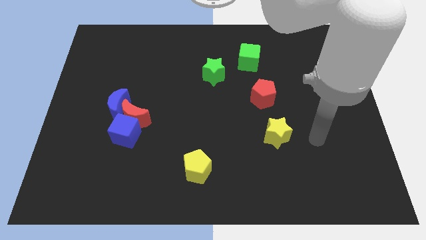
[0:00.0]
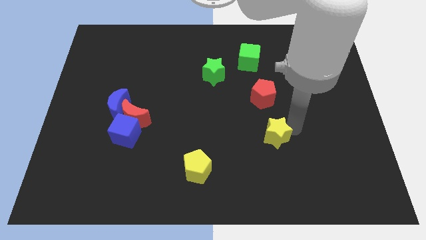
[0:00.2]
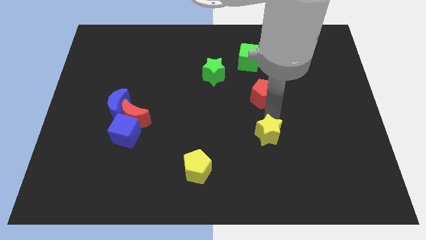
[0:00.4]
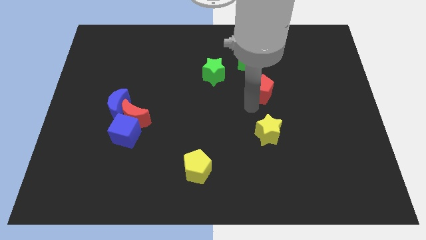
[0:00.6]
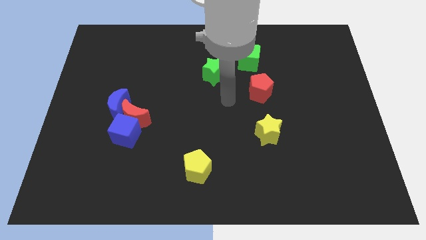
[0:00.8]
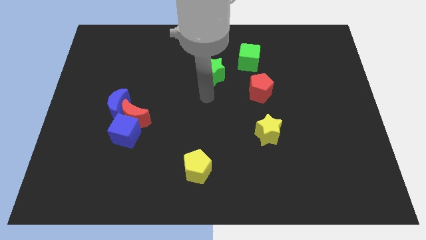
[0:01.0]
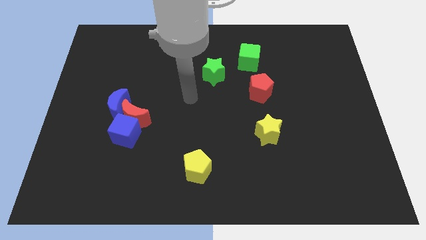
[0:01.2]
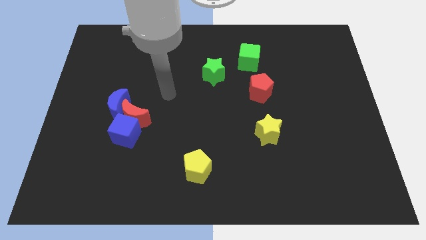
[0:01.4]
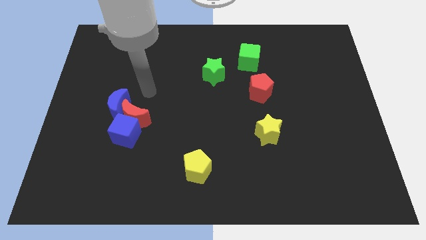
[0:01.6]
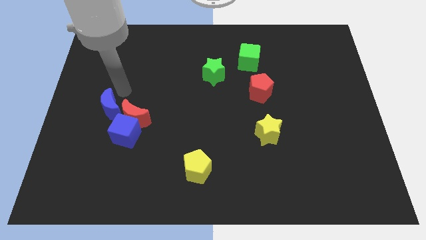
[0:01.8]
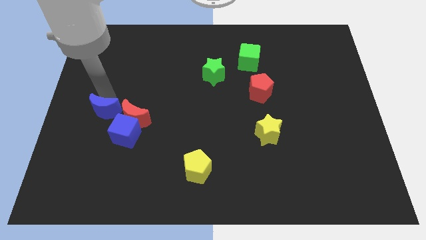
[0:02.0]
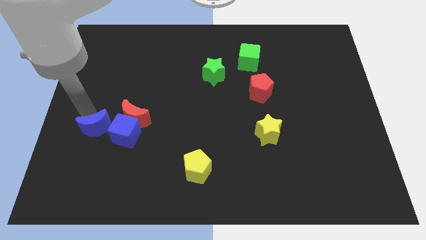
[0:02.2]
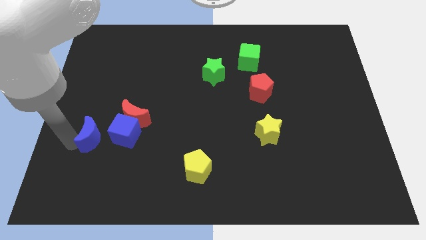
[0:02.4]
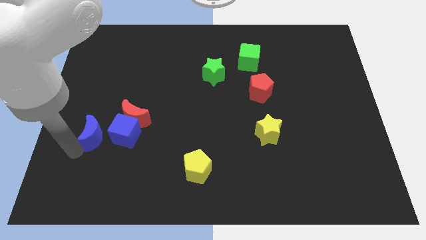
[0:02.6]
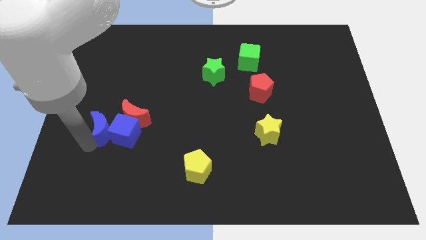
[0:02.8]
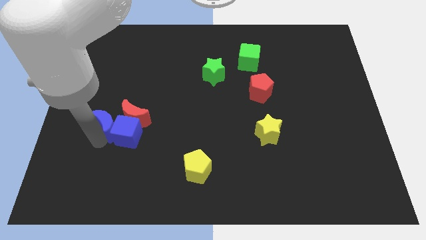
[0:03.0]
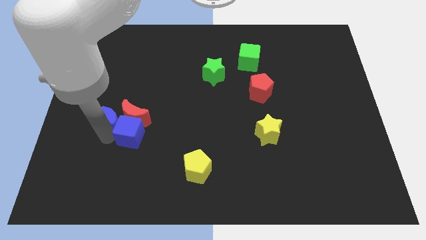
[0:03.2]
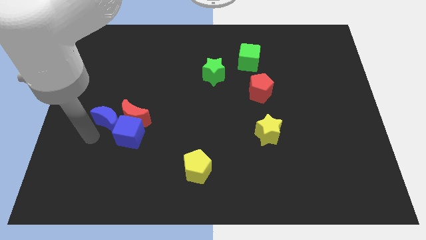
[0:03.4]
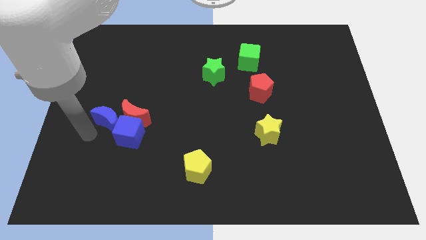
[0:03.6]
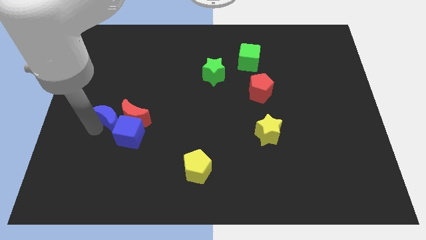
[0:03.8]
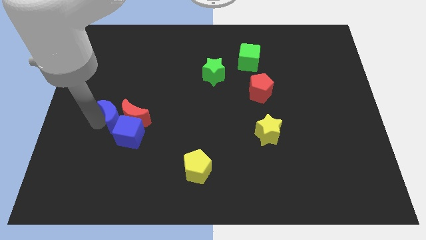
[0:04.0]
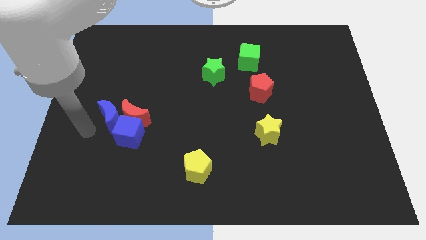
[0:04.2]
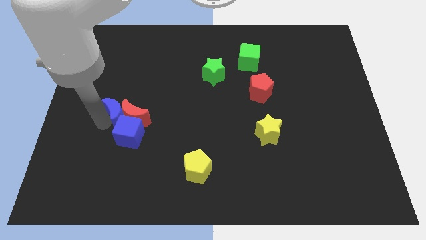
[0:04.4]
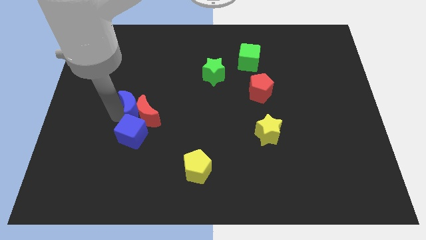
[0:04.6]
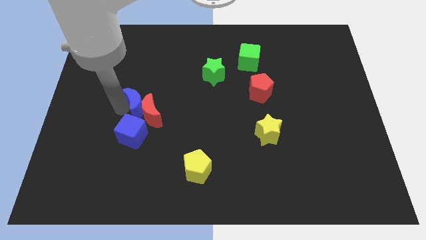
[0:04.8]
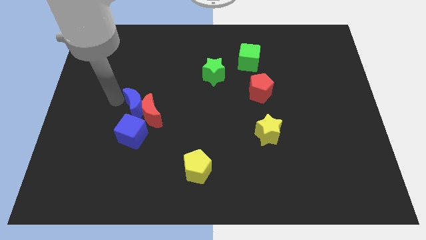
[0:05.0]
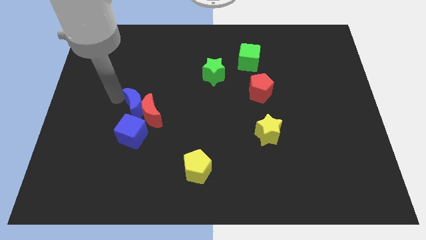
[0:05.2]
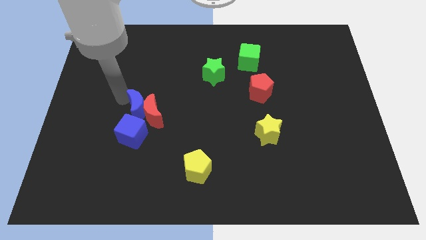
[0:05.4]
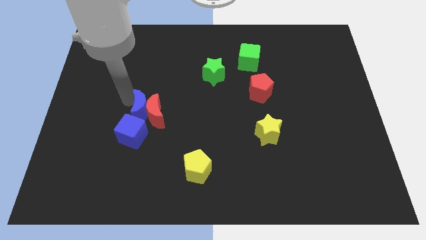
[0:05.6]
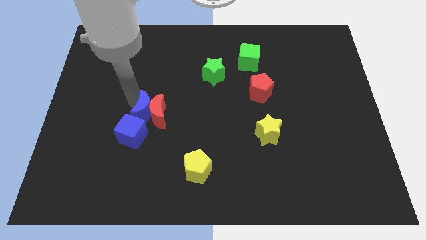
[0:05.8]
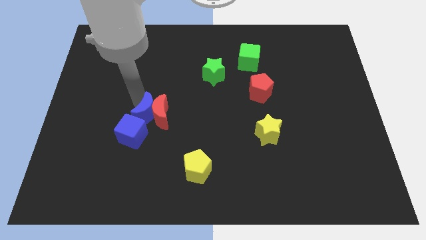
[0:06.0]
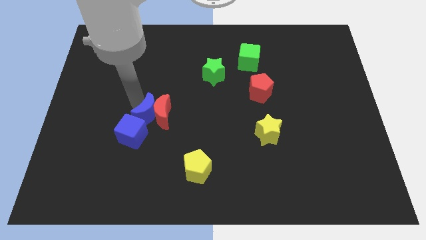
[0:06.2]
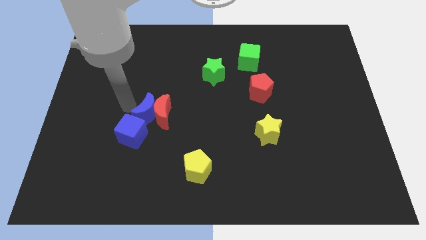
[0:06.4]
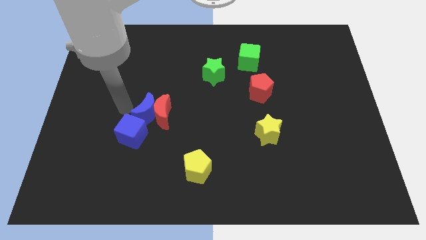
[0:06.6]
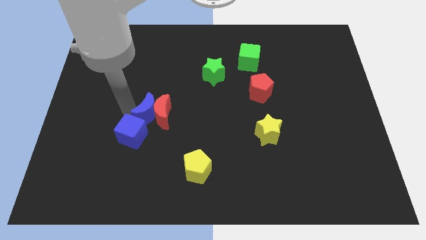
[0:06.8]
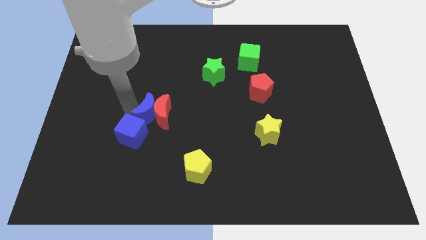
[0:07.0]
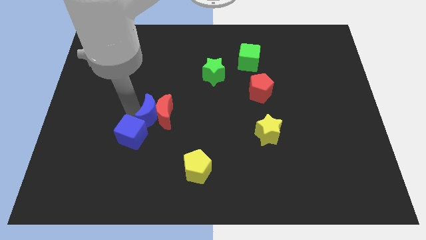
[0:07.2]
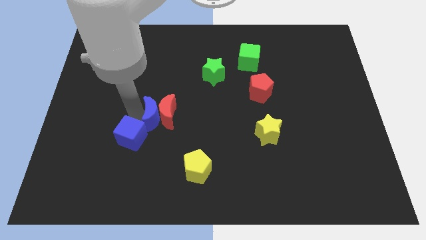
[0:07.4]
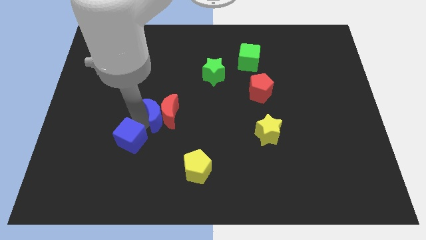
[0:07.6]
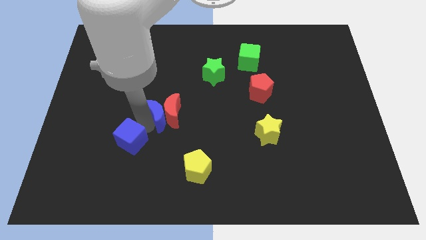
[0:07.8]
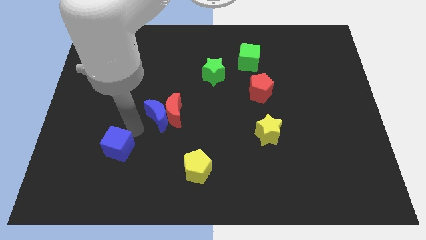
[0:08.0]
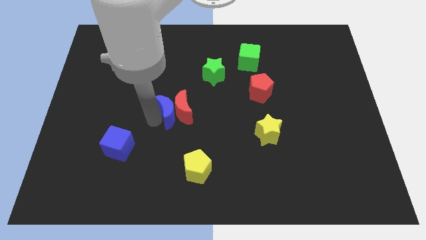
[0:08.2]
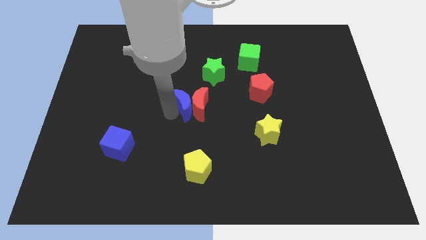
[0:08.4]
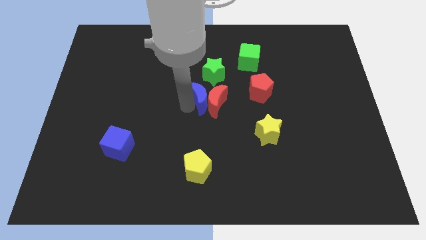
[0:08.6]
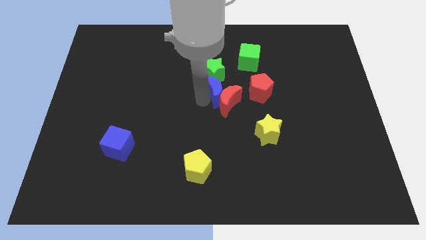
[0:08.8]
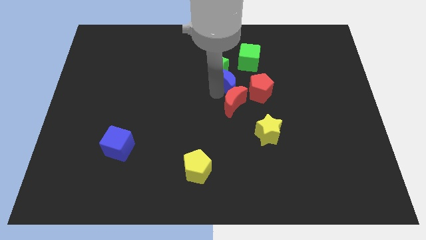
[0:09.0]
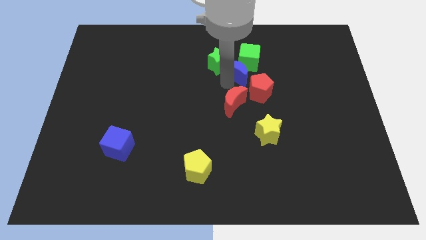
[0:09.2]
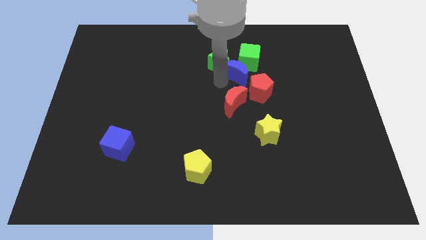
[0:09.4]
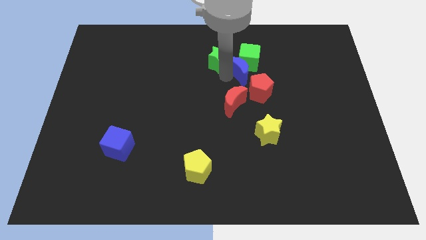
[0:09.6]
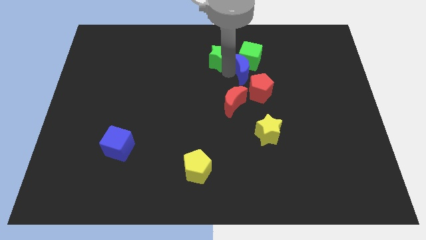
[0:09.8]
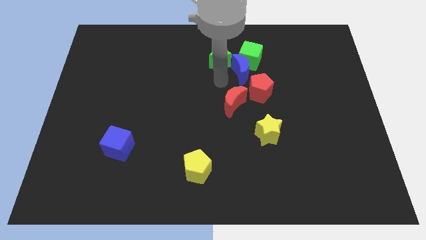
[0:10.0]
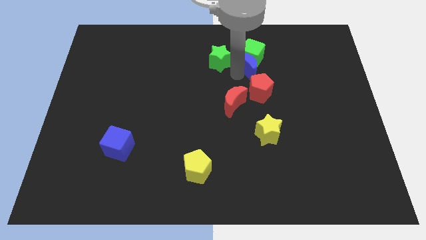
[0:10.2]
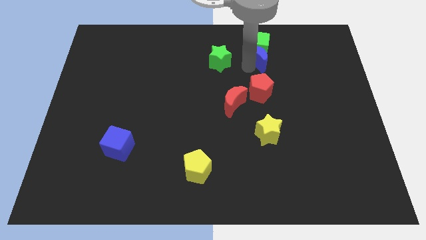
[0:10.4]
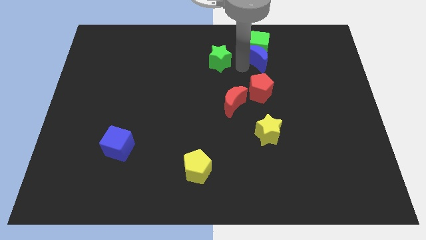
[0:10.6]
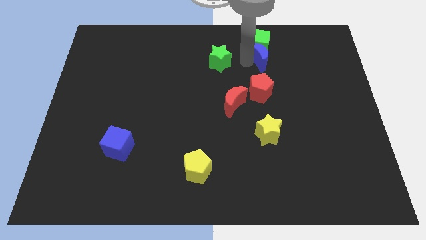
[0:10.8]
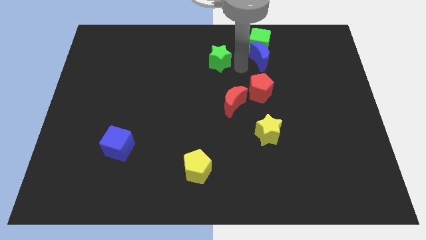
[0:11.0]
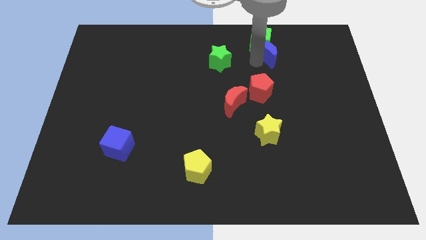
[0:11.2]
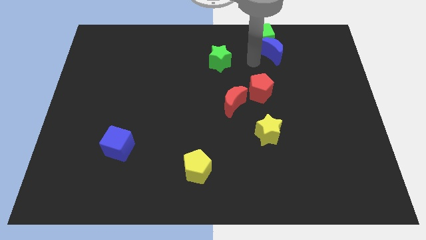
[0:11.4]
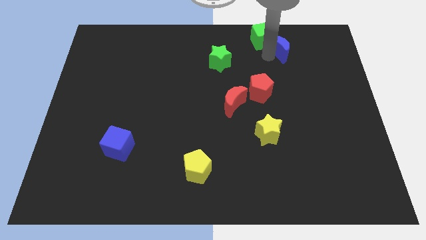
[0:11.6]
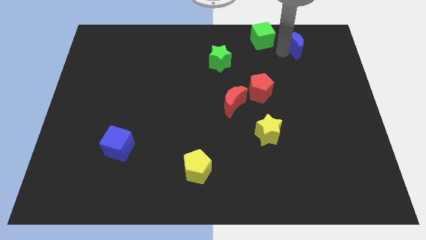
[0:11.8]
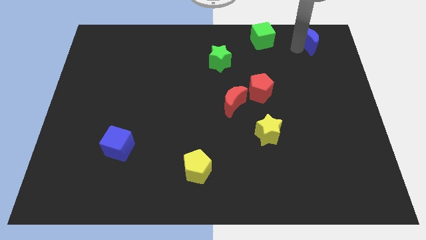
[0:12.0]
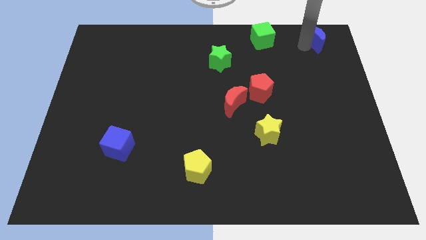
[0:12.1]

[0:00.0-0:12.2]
slide the blue moon to the top right
